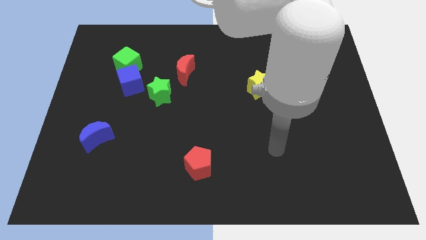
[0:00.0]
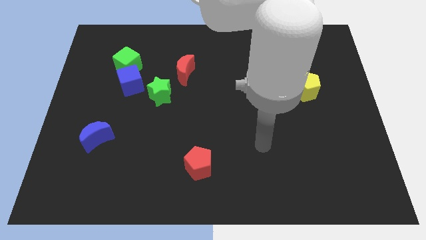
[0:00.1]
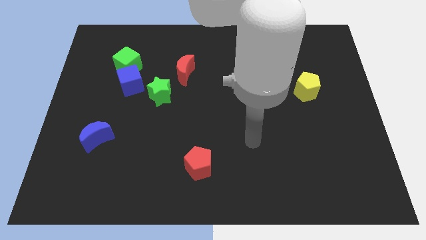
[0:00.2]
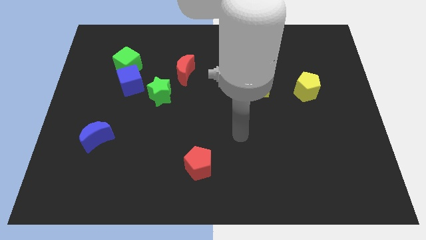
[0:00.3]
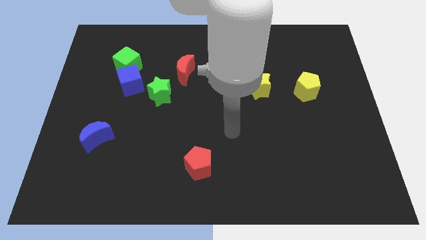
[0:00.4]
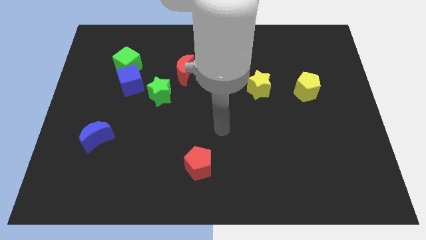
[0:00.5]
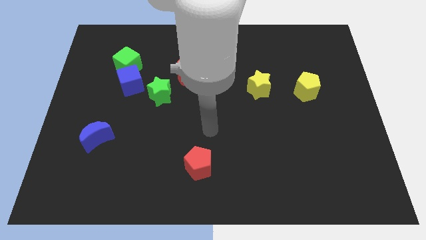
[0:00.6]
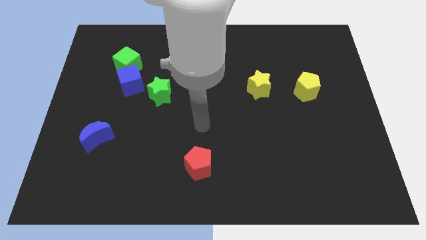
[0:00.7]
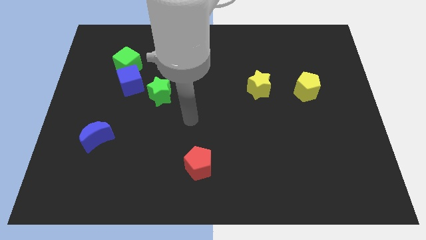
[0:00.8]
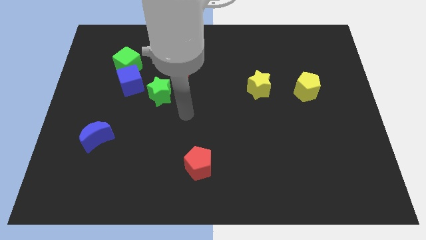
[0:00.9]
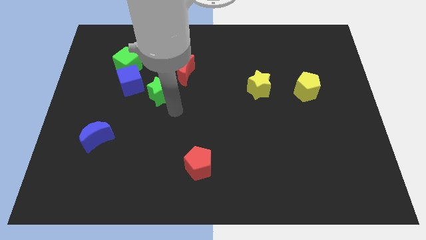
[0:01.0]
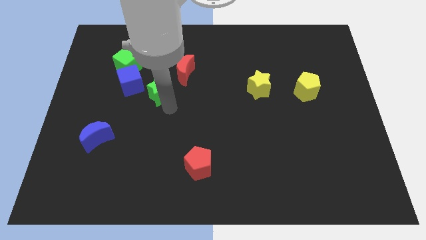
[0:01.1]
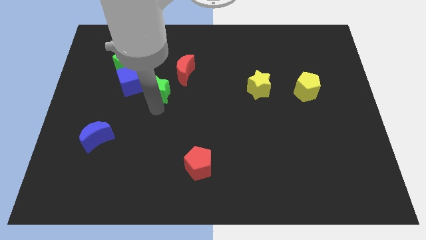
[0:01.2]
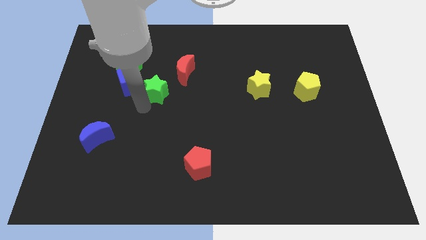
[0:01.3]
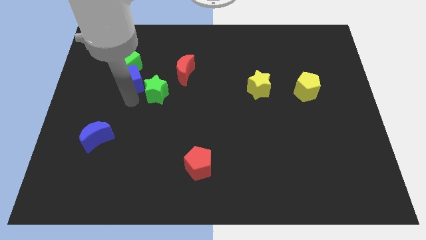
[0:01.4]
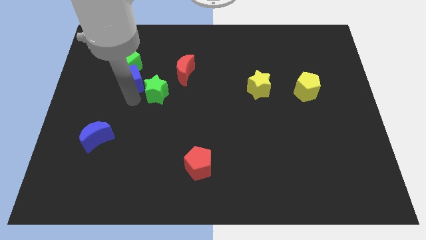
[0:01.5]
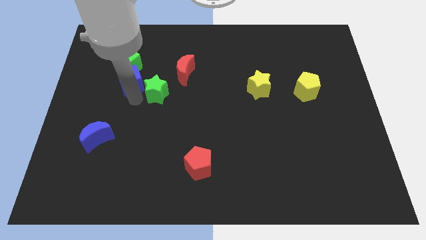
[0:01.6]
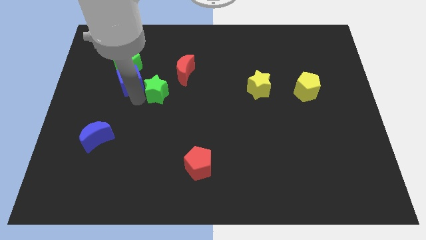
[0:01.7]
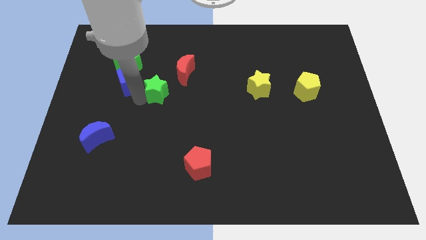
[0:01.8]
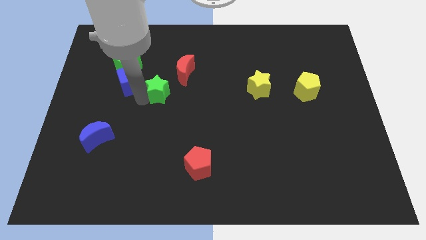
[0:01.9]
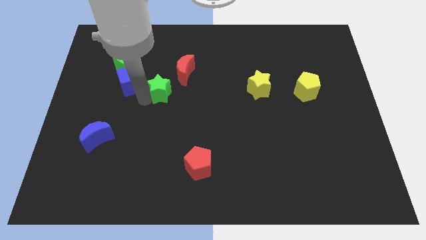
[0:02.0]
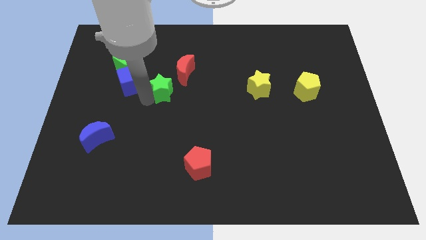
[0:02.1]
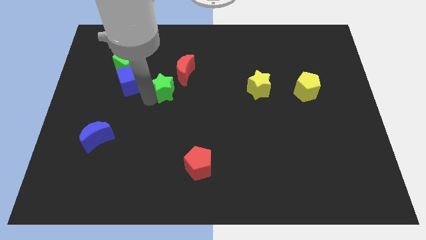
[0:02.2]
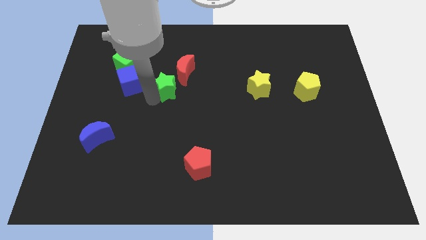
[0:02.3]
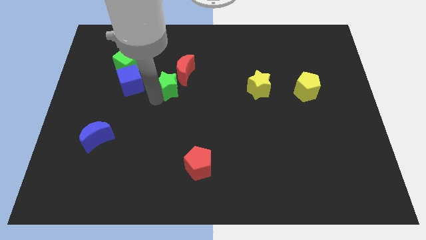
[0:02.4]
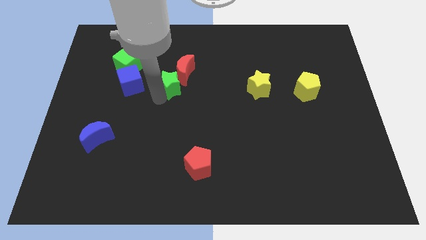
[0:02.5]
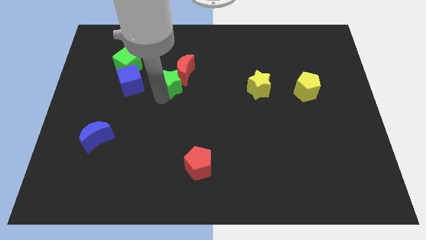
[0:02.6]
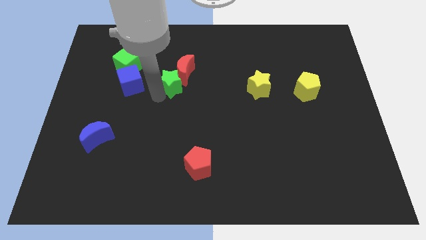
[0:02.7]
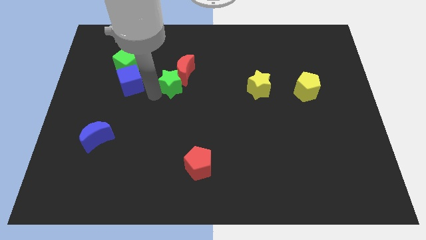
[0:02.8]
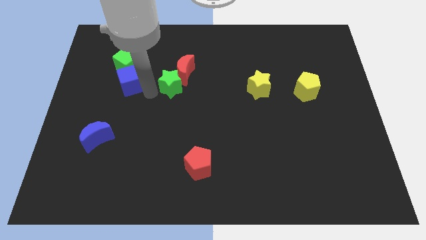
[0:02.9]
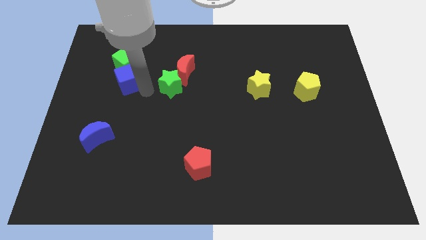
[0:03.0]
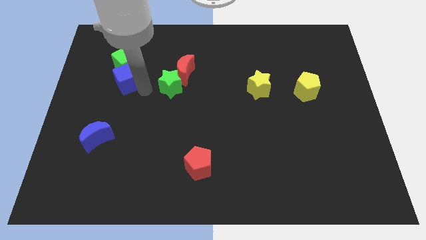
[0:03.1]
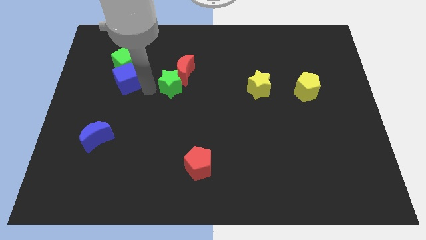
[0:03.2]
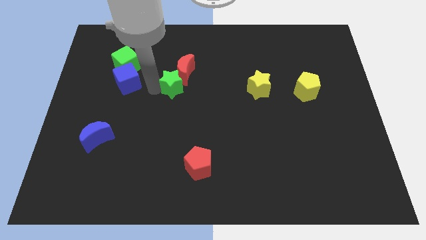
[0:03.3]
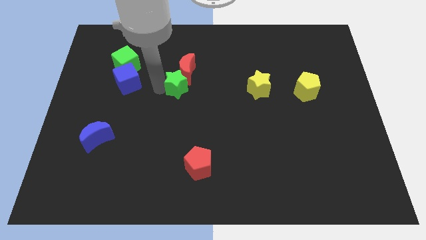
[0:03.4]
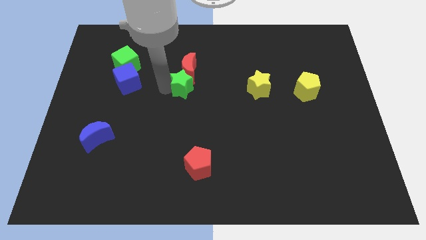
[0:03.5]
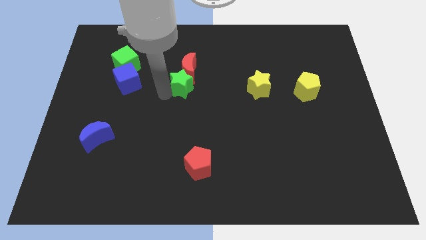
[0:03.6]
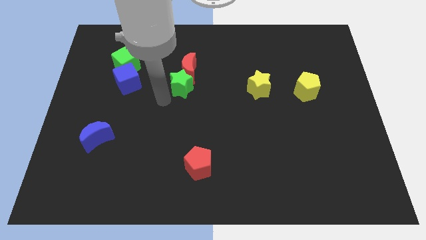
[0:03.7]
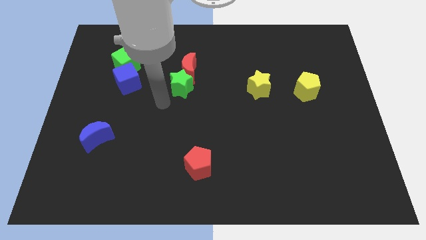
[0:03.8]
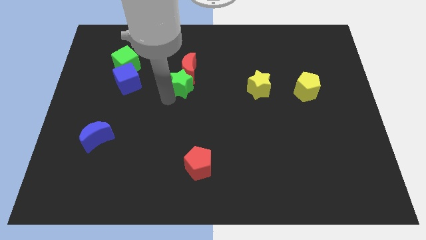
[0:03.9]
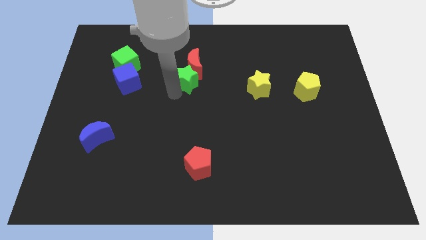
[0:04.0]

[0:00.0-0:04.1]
slightly push the green star up and to the right

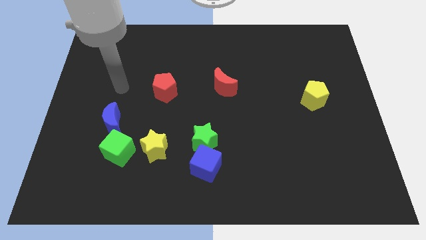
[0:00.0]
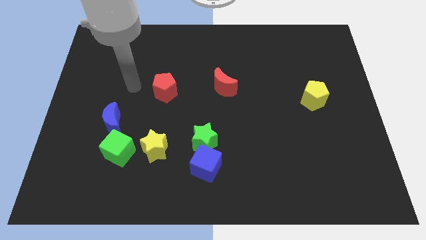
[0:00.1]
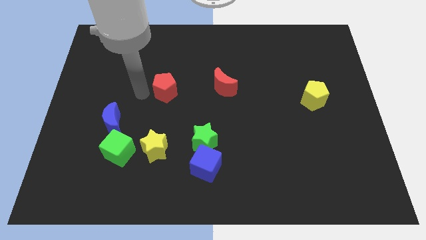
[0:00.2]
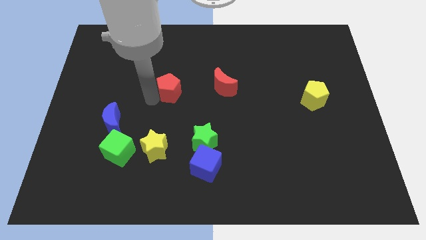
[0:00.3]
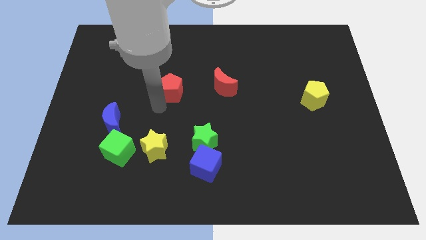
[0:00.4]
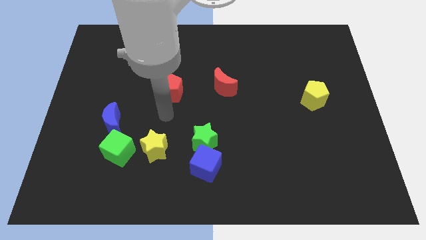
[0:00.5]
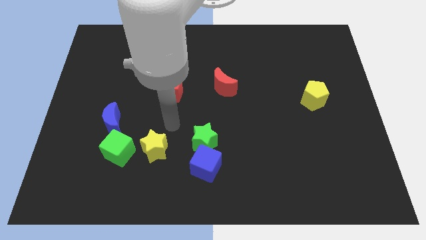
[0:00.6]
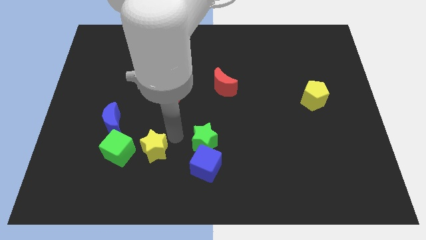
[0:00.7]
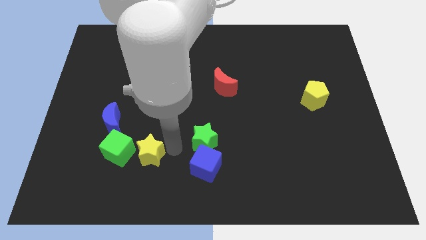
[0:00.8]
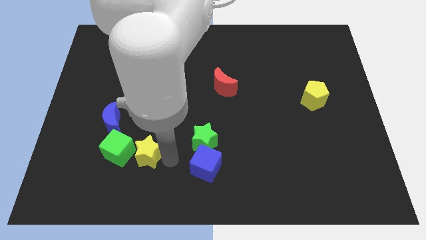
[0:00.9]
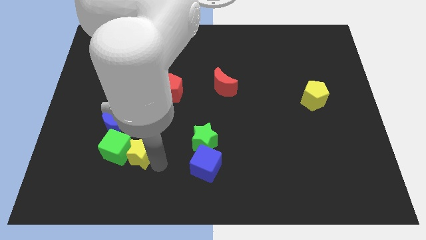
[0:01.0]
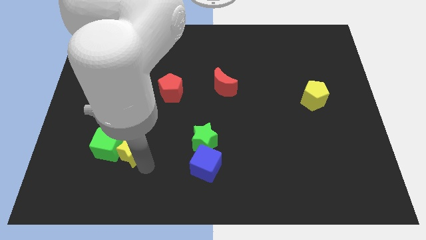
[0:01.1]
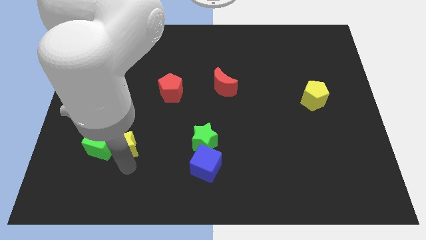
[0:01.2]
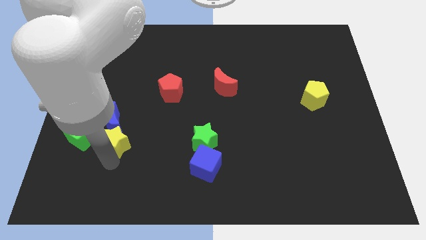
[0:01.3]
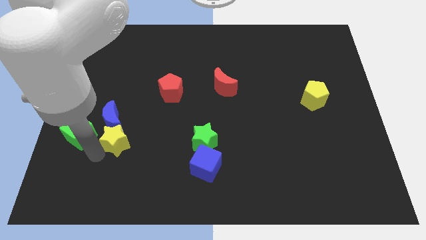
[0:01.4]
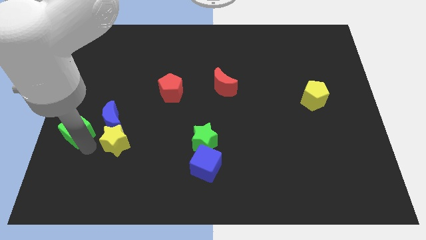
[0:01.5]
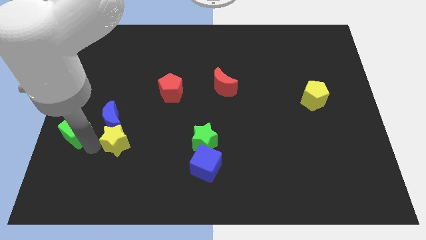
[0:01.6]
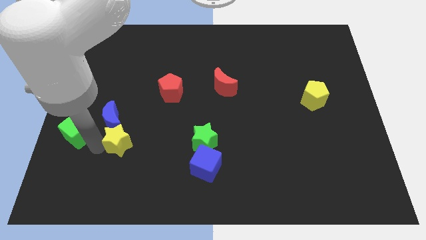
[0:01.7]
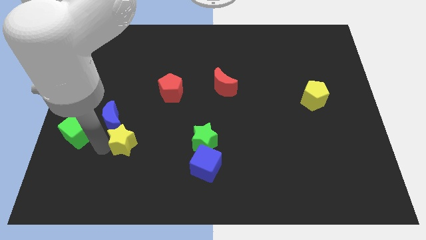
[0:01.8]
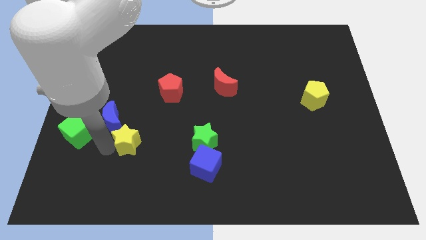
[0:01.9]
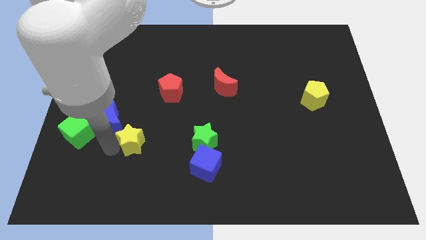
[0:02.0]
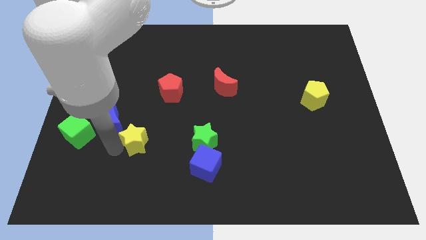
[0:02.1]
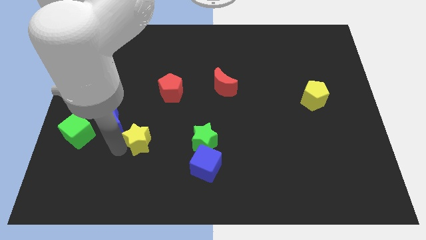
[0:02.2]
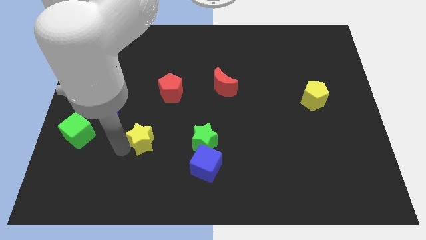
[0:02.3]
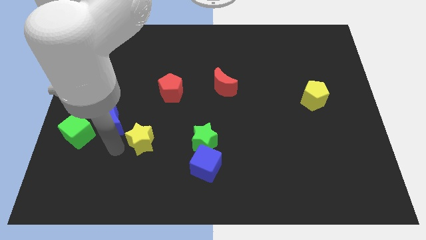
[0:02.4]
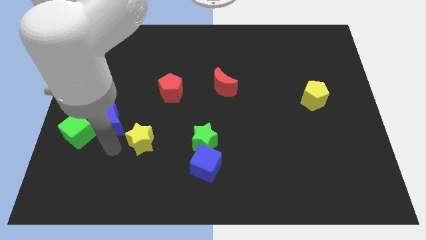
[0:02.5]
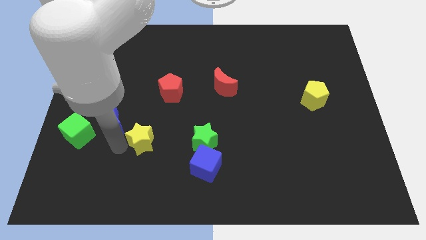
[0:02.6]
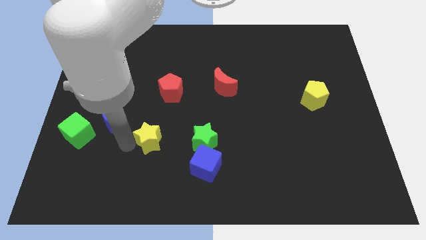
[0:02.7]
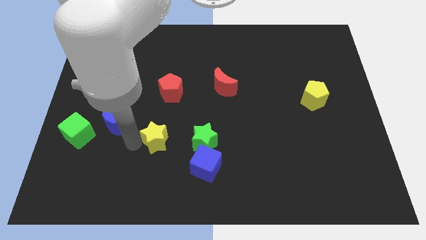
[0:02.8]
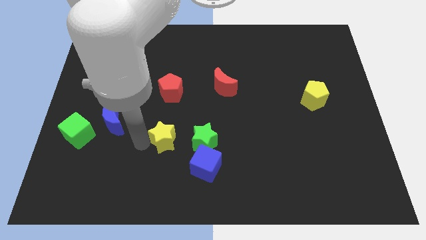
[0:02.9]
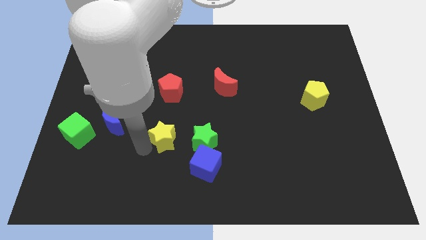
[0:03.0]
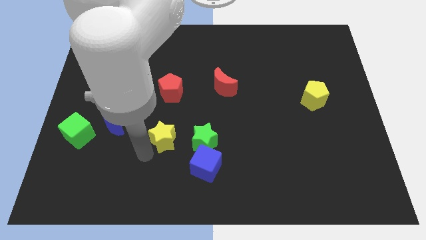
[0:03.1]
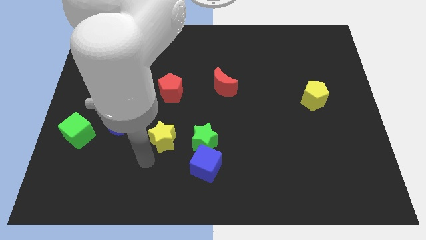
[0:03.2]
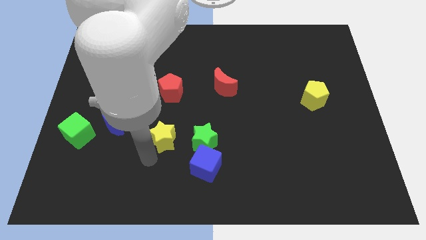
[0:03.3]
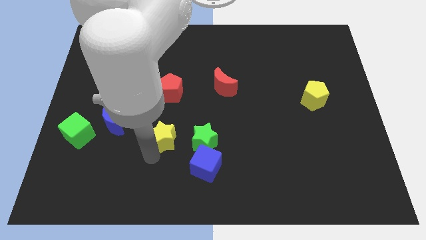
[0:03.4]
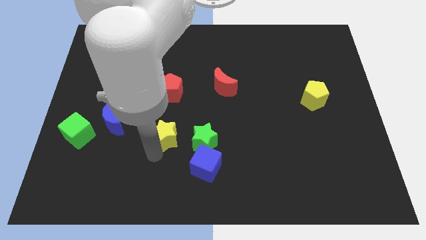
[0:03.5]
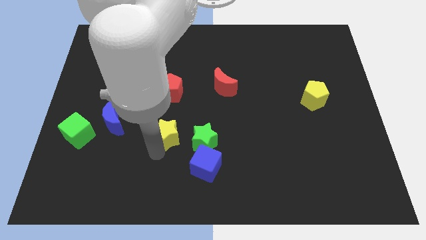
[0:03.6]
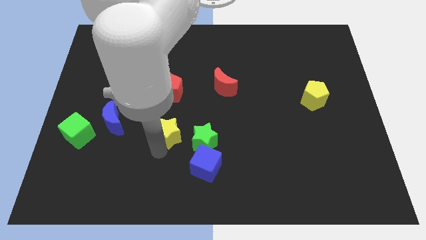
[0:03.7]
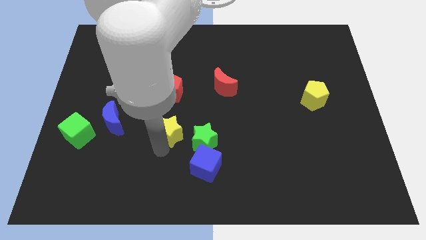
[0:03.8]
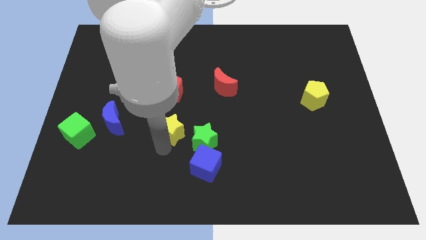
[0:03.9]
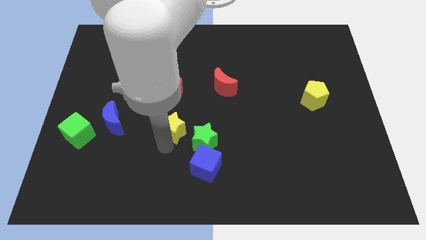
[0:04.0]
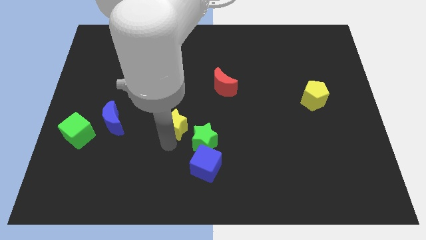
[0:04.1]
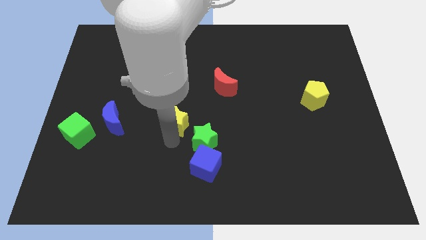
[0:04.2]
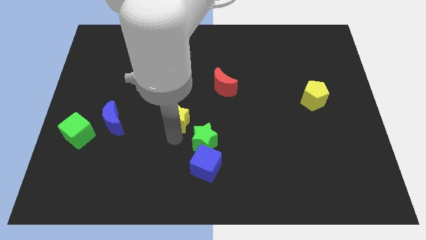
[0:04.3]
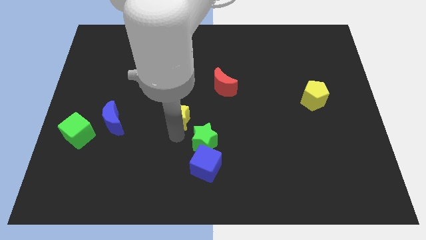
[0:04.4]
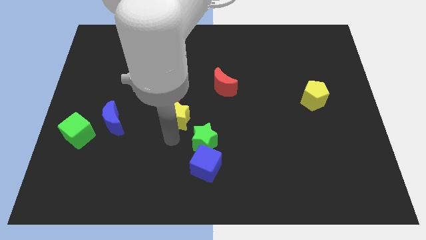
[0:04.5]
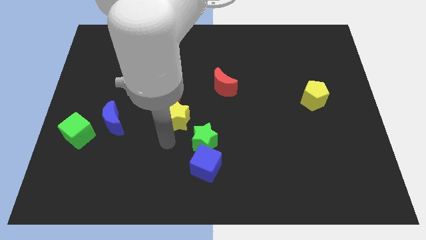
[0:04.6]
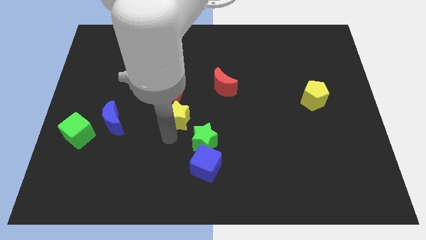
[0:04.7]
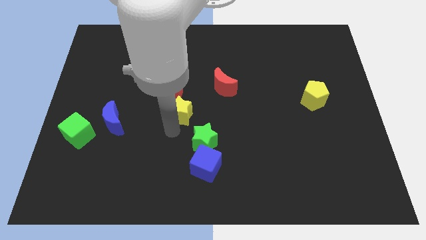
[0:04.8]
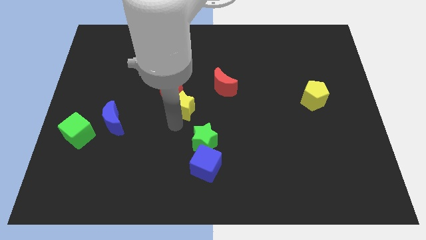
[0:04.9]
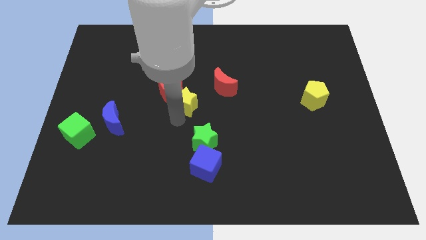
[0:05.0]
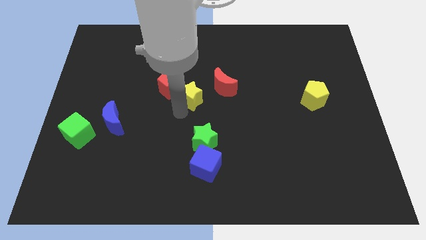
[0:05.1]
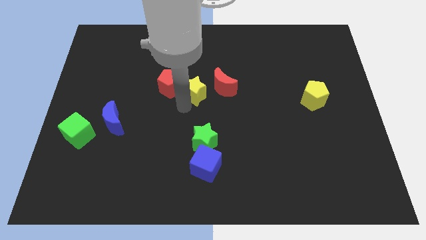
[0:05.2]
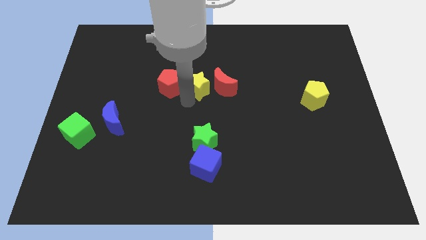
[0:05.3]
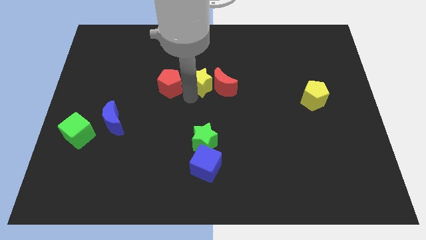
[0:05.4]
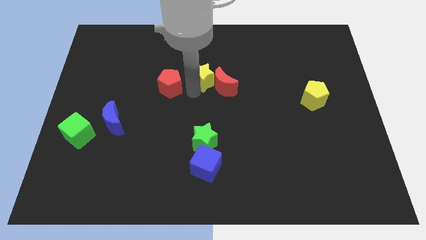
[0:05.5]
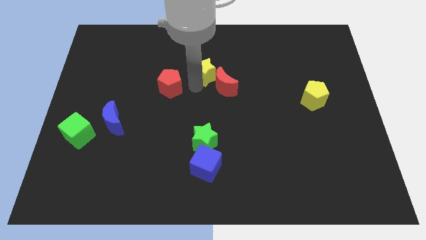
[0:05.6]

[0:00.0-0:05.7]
slide the yellow star upwards and then to the right
